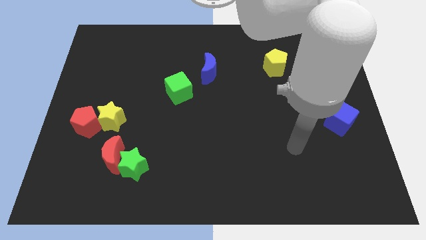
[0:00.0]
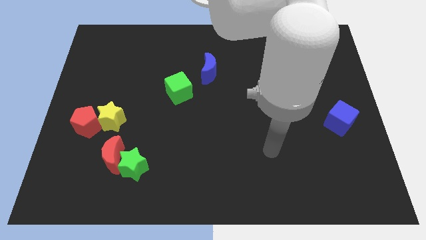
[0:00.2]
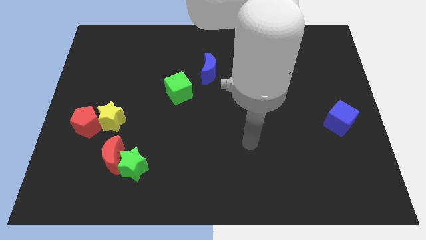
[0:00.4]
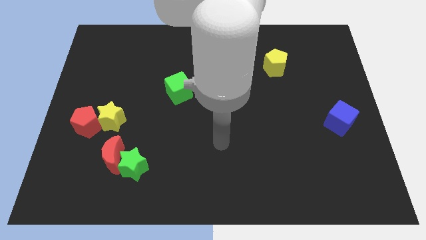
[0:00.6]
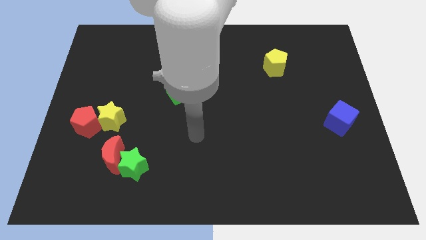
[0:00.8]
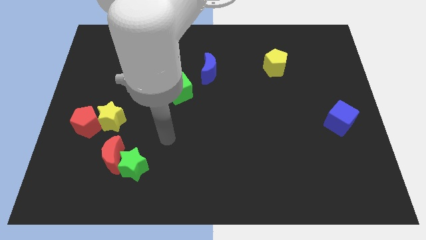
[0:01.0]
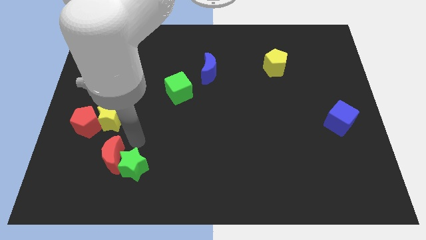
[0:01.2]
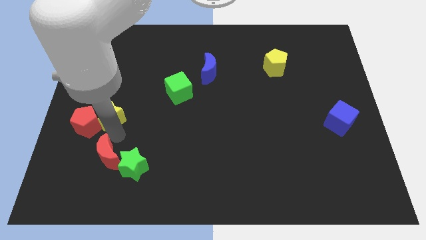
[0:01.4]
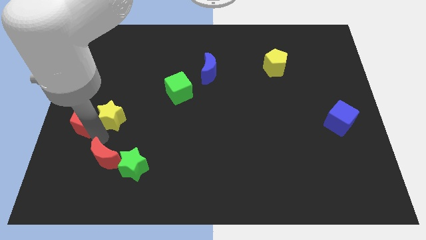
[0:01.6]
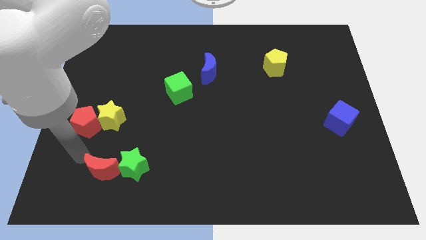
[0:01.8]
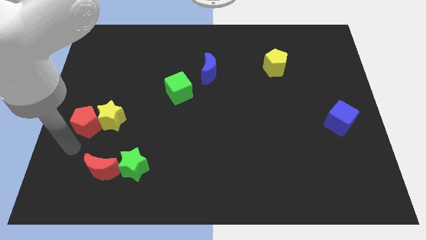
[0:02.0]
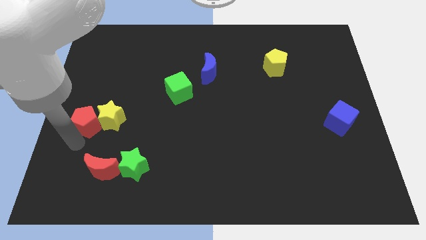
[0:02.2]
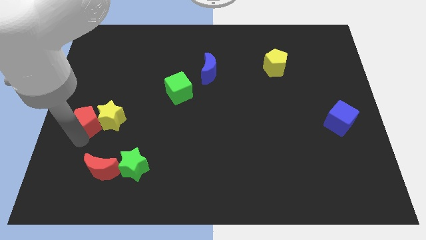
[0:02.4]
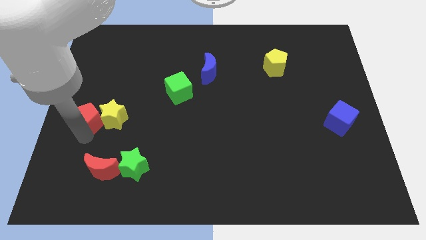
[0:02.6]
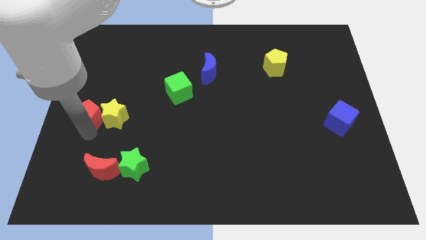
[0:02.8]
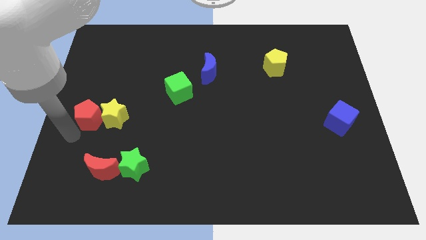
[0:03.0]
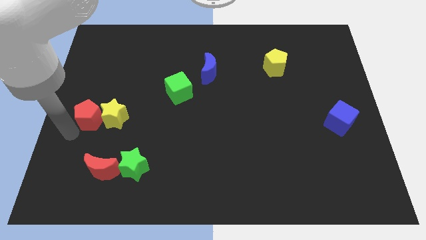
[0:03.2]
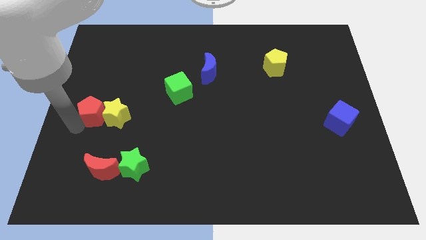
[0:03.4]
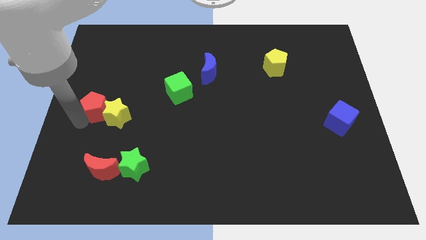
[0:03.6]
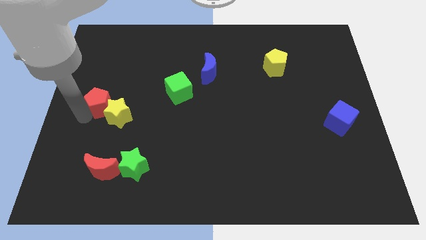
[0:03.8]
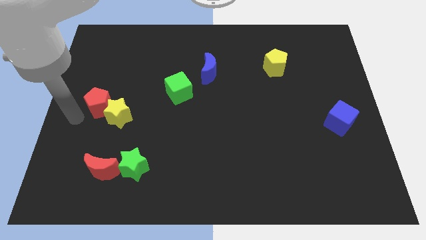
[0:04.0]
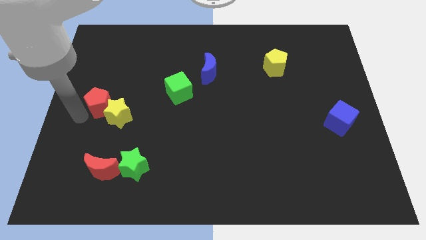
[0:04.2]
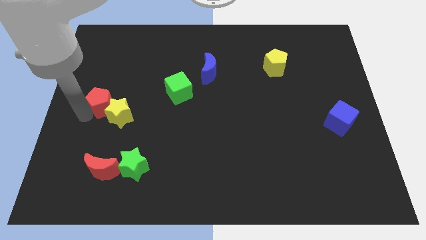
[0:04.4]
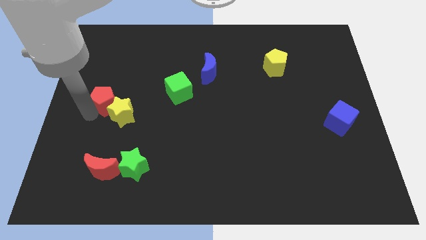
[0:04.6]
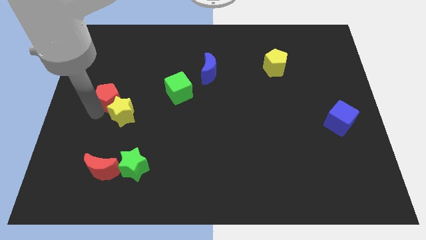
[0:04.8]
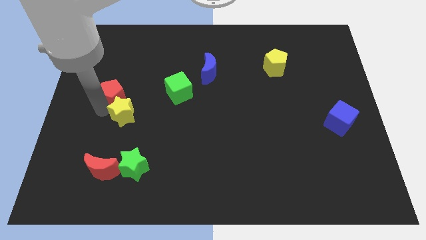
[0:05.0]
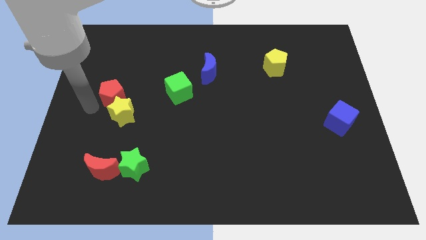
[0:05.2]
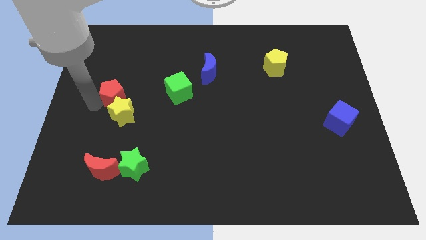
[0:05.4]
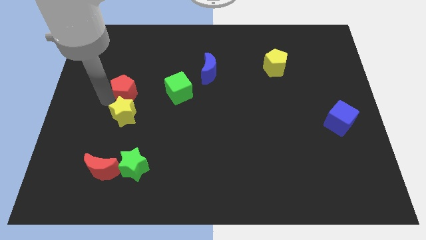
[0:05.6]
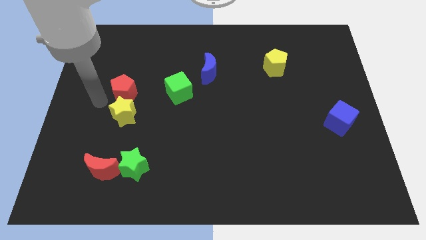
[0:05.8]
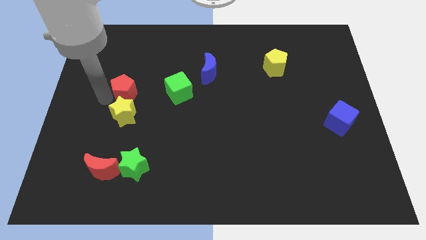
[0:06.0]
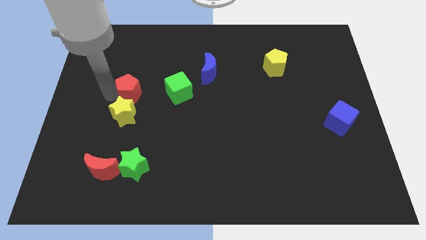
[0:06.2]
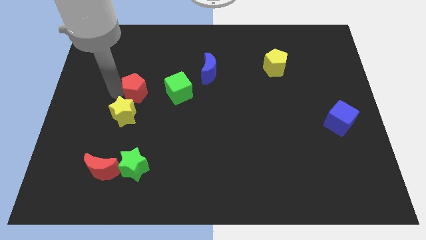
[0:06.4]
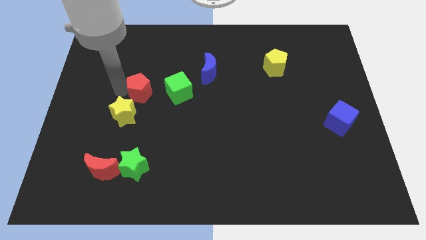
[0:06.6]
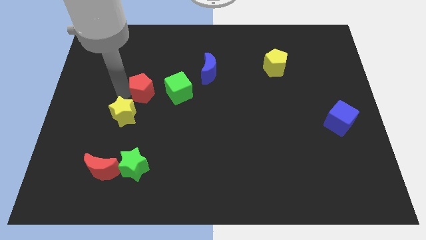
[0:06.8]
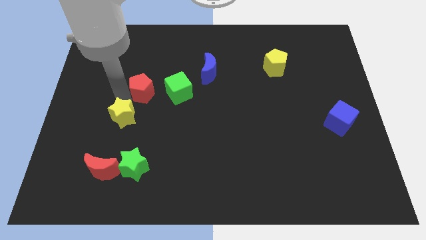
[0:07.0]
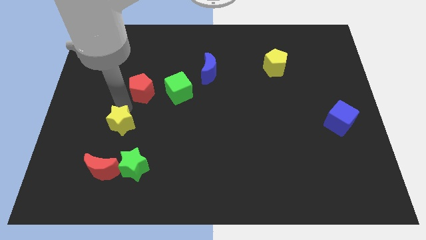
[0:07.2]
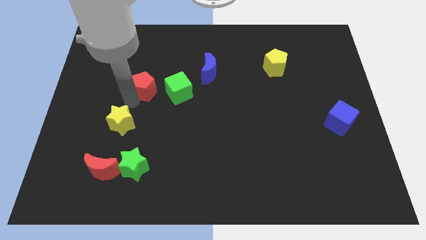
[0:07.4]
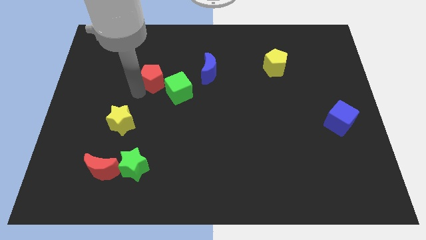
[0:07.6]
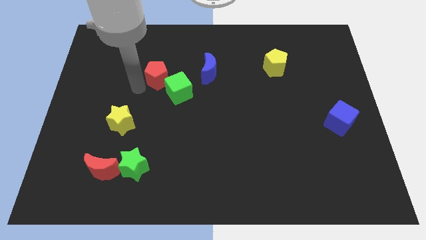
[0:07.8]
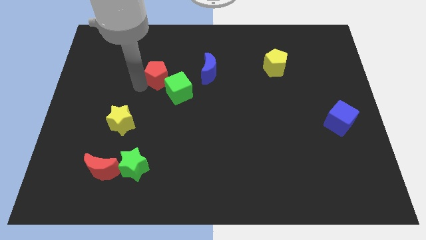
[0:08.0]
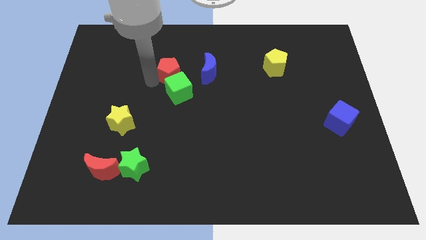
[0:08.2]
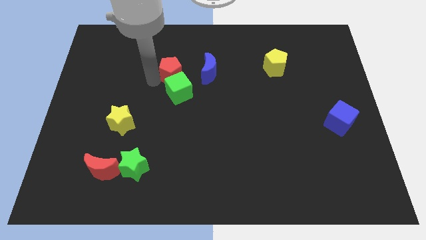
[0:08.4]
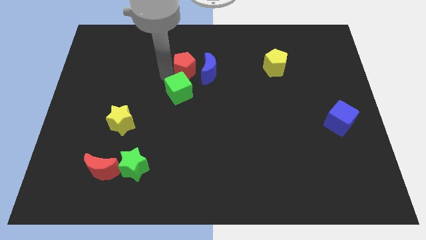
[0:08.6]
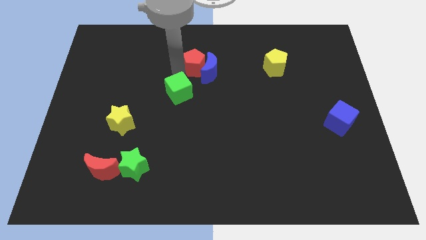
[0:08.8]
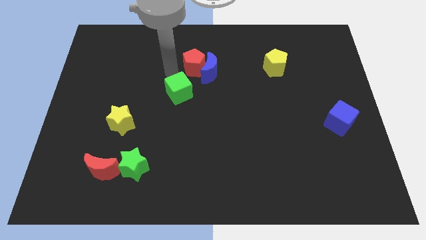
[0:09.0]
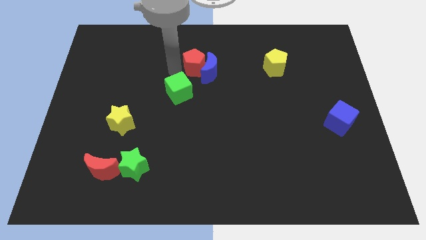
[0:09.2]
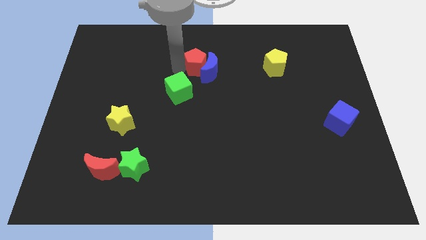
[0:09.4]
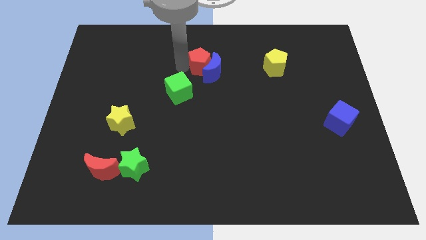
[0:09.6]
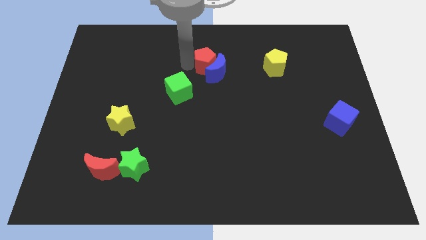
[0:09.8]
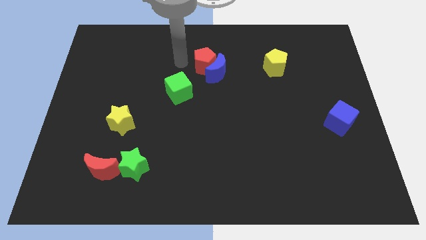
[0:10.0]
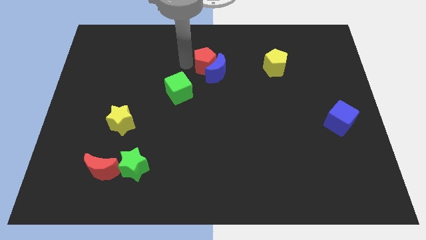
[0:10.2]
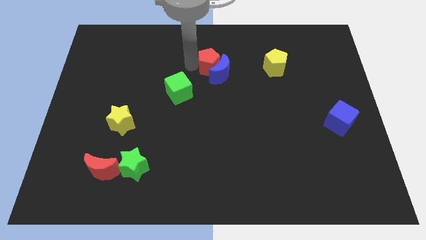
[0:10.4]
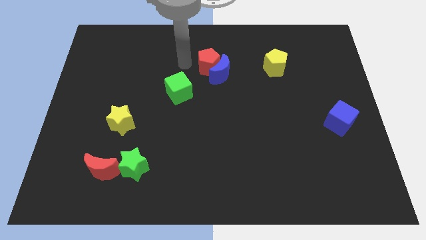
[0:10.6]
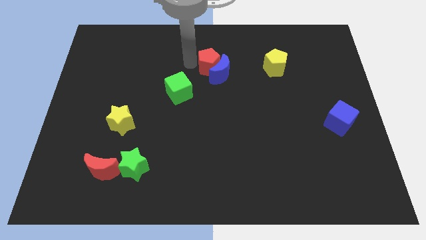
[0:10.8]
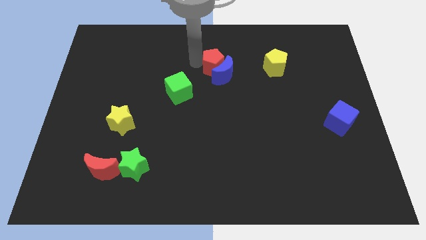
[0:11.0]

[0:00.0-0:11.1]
move the red pentagon to the left side of the yellow pentagon

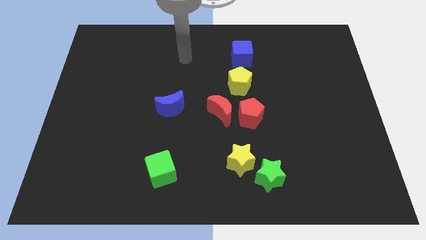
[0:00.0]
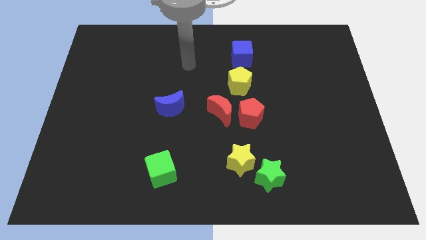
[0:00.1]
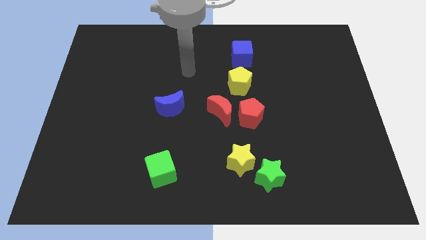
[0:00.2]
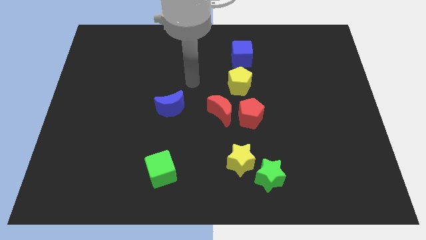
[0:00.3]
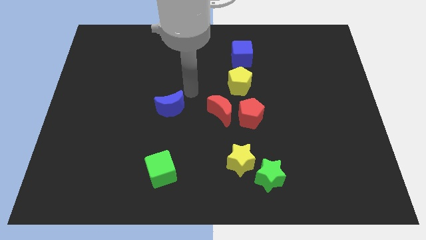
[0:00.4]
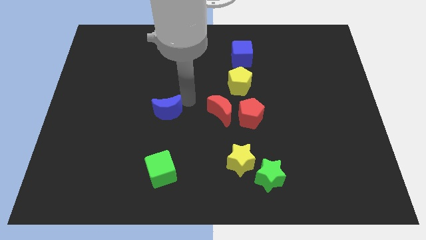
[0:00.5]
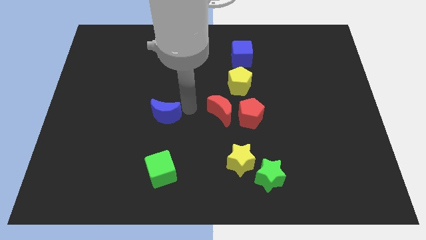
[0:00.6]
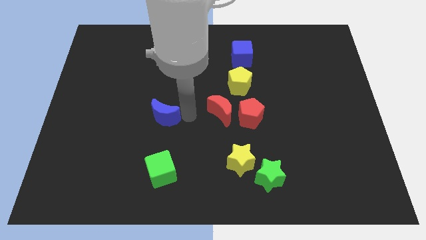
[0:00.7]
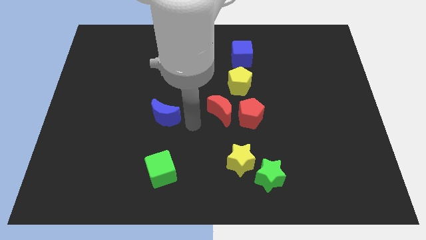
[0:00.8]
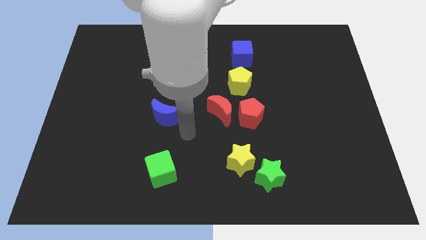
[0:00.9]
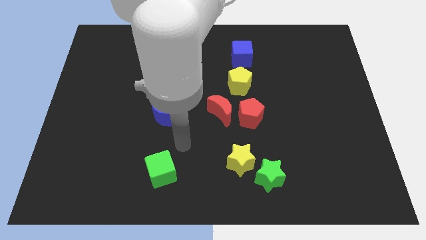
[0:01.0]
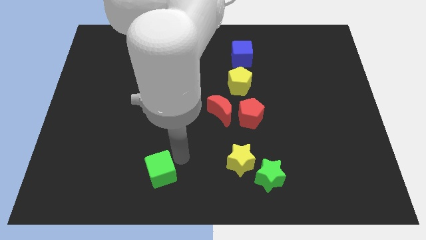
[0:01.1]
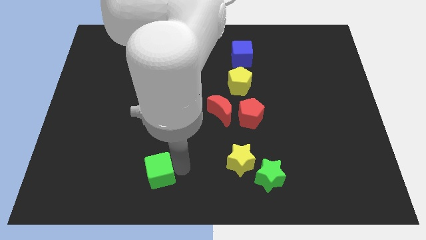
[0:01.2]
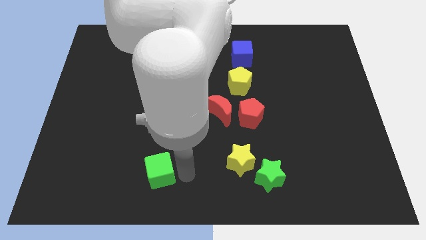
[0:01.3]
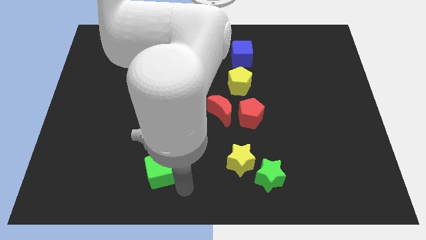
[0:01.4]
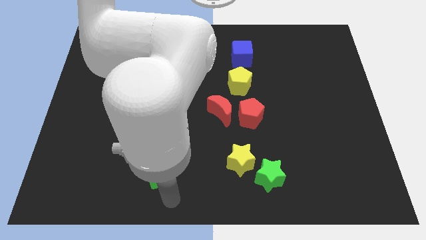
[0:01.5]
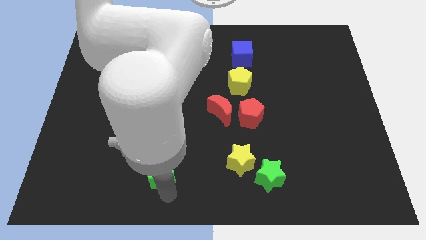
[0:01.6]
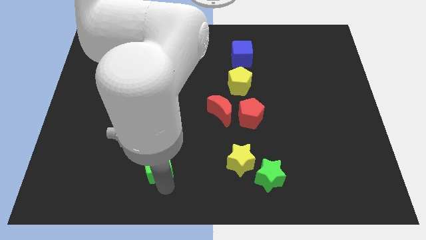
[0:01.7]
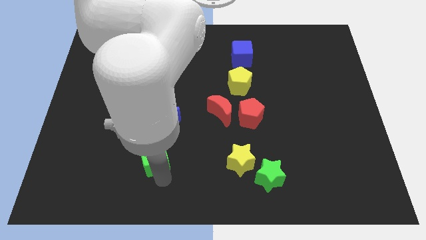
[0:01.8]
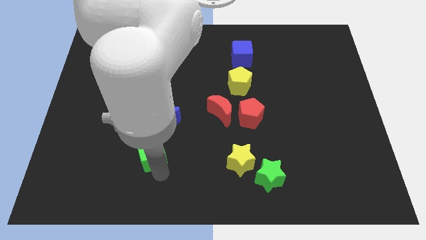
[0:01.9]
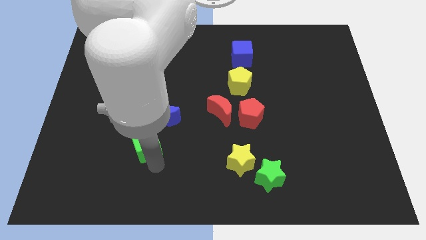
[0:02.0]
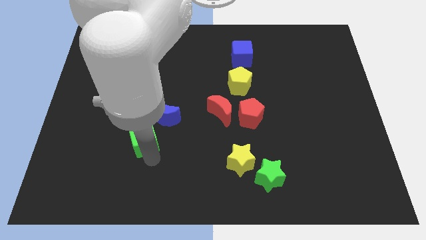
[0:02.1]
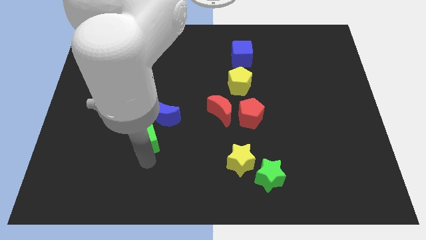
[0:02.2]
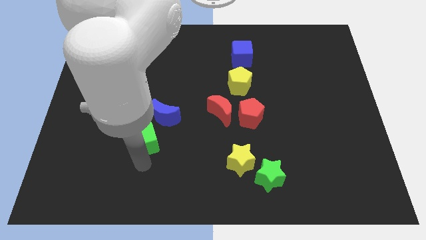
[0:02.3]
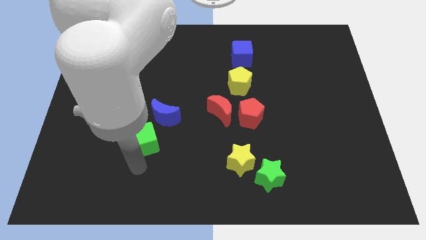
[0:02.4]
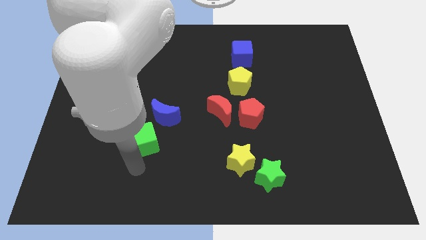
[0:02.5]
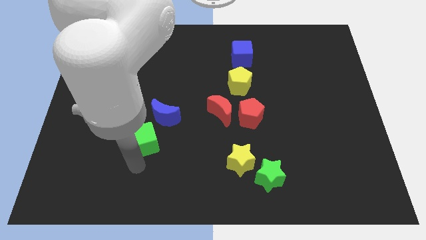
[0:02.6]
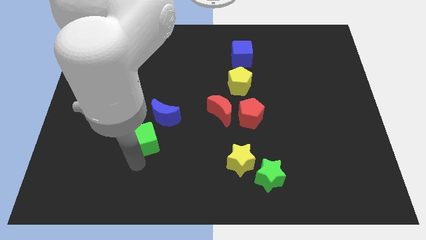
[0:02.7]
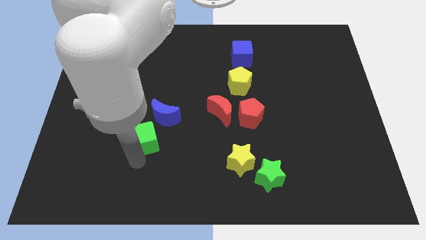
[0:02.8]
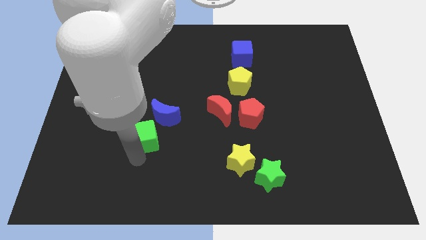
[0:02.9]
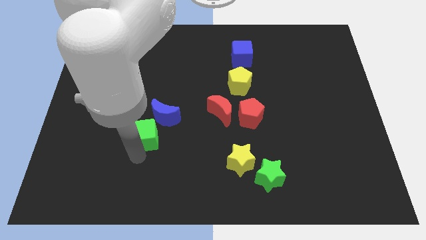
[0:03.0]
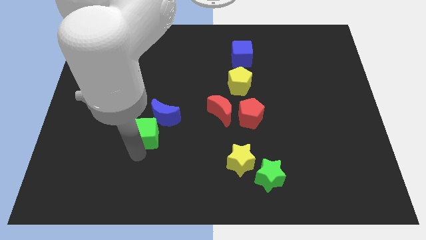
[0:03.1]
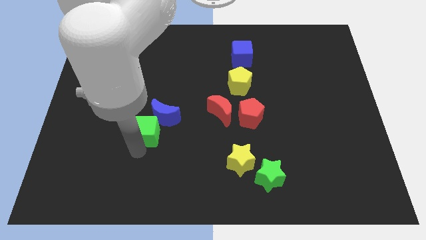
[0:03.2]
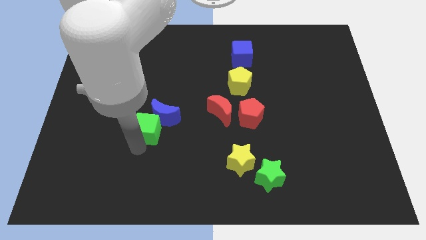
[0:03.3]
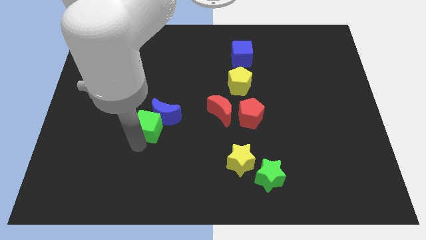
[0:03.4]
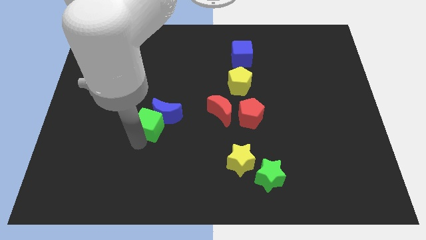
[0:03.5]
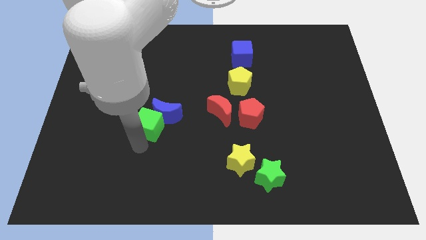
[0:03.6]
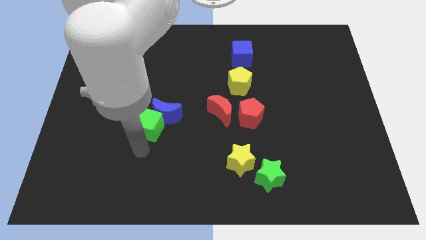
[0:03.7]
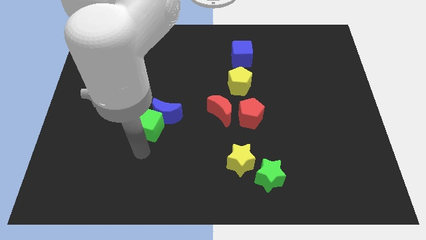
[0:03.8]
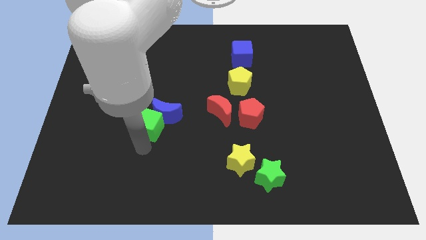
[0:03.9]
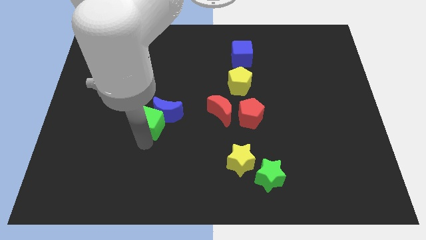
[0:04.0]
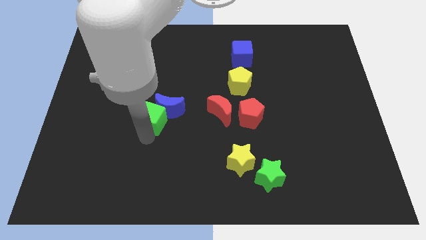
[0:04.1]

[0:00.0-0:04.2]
move the green cube to the left side of the red moon
